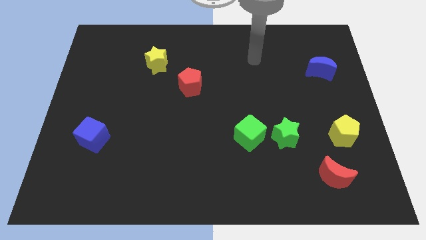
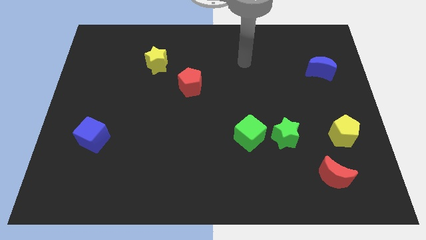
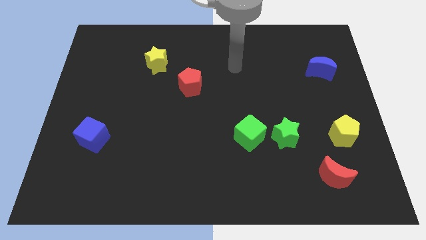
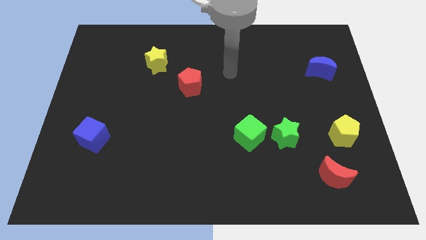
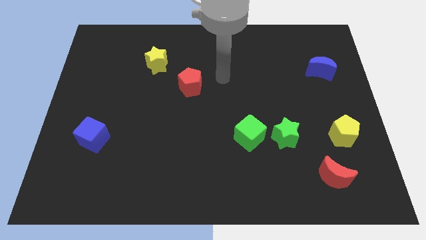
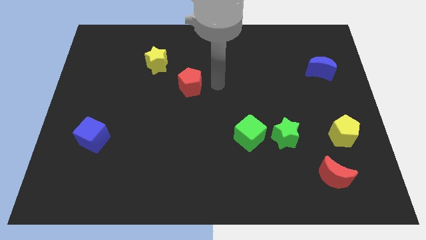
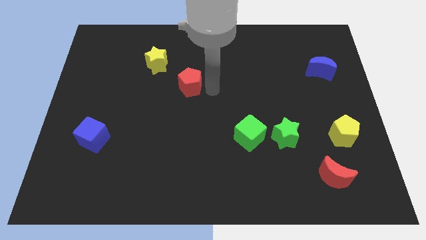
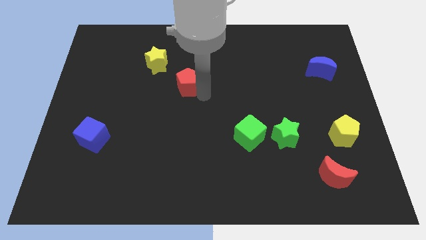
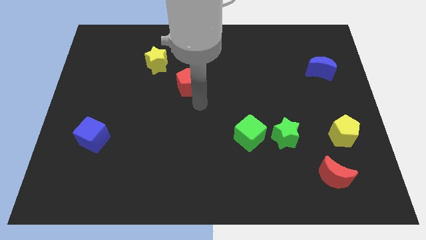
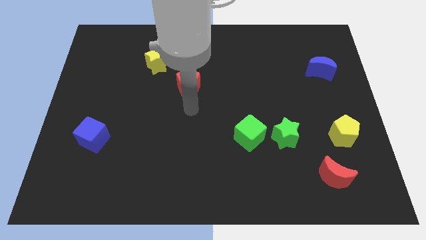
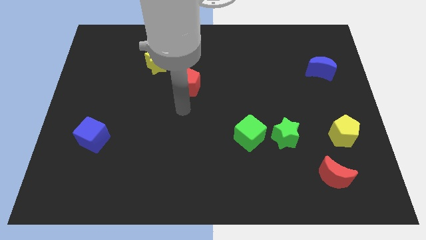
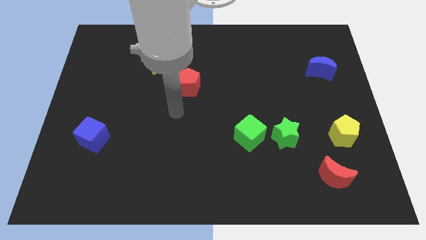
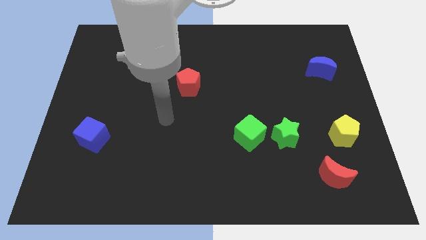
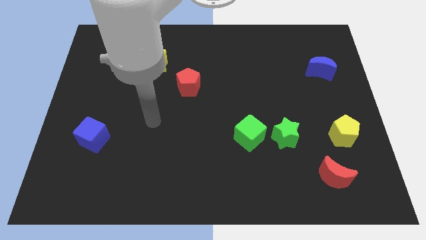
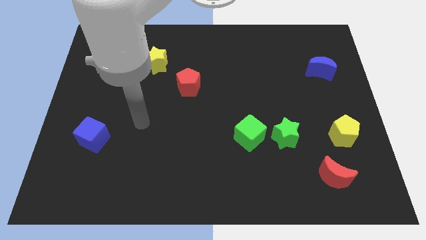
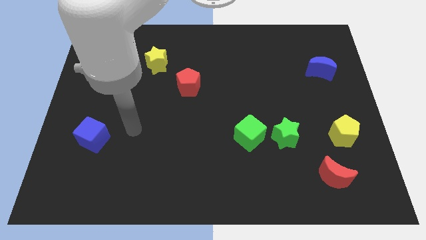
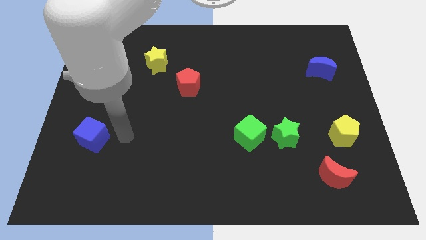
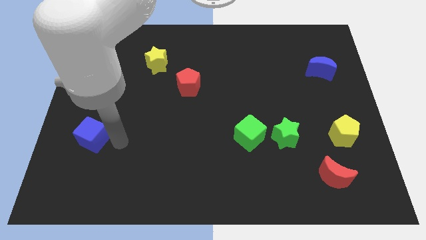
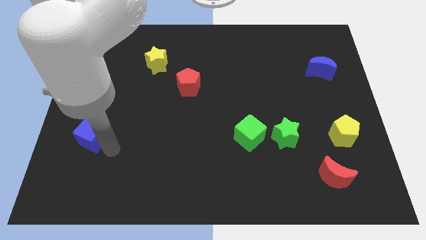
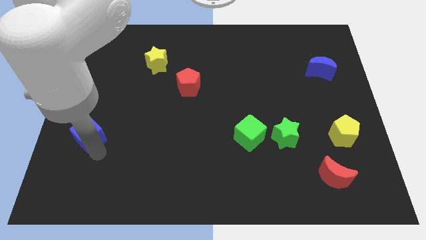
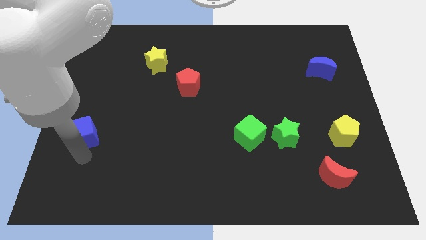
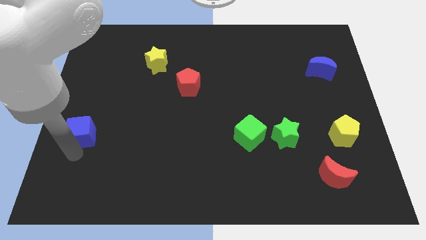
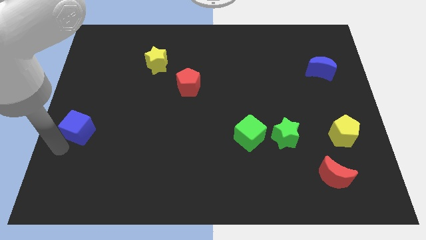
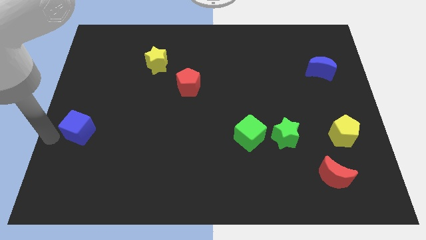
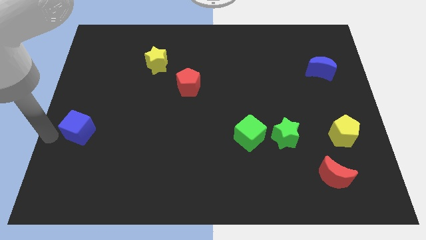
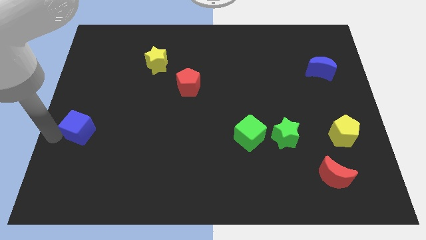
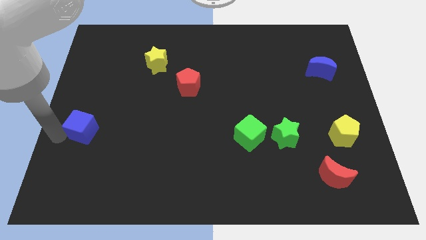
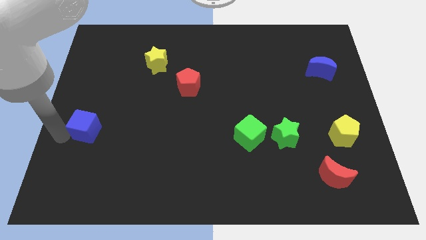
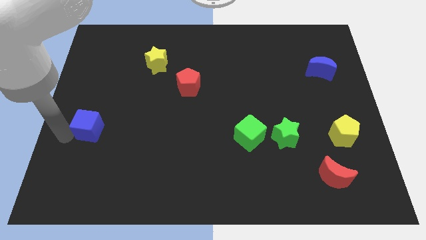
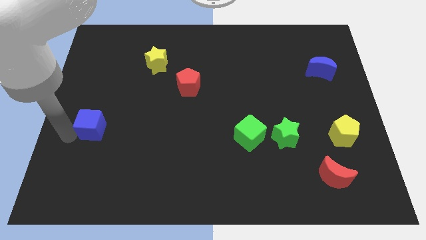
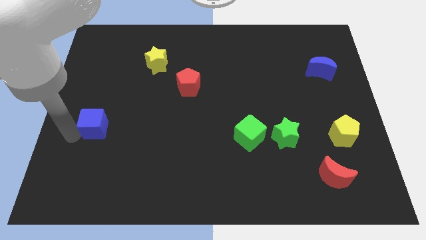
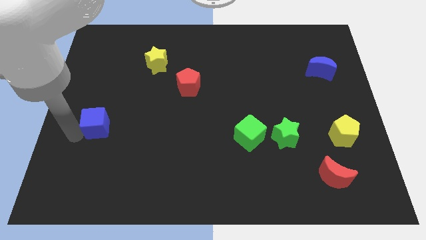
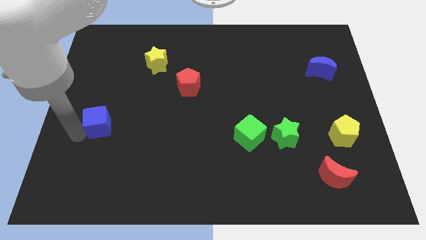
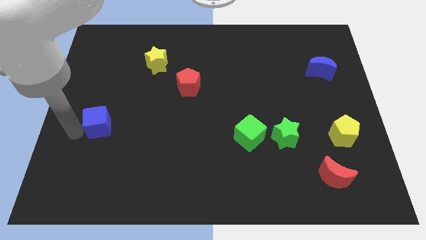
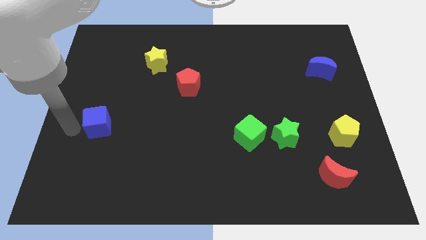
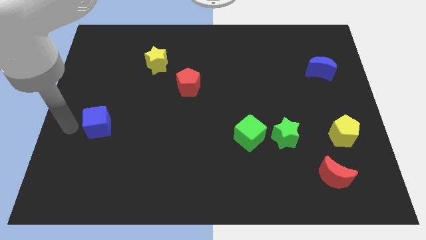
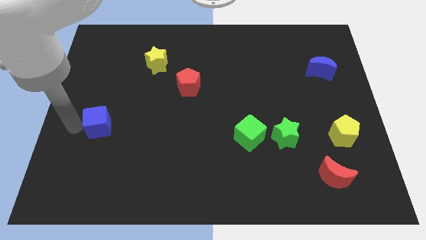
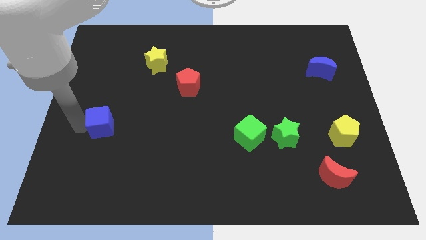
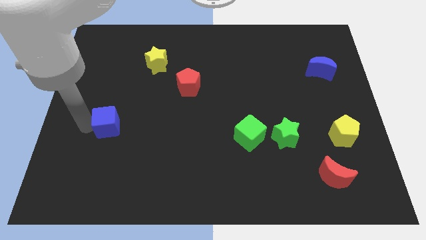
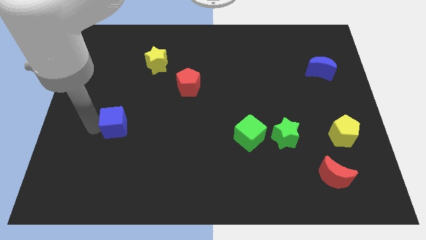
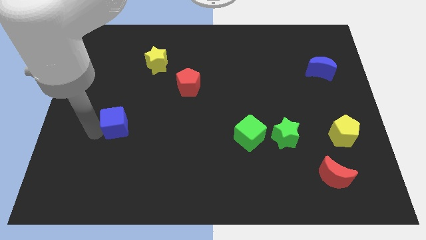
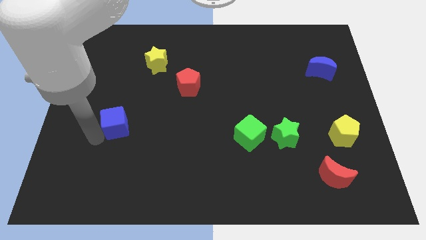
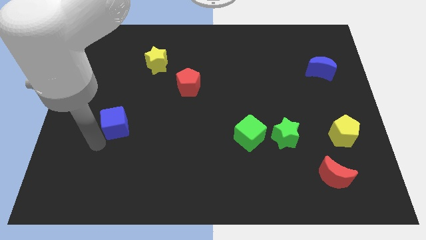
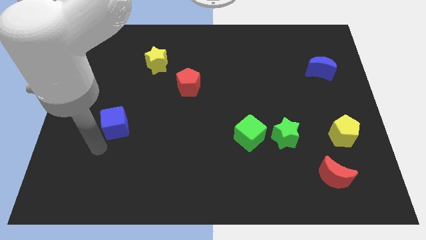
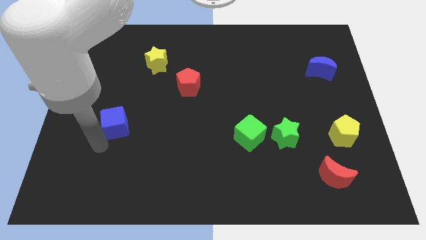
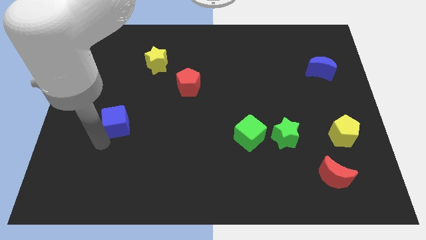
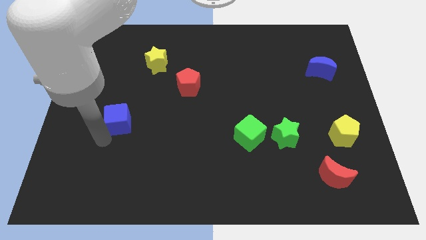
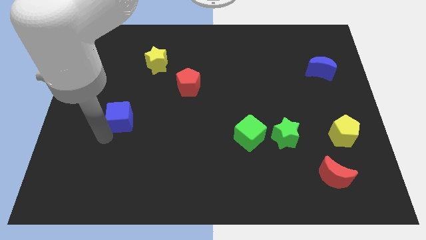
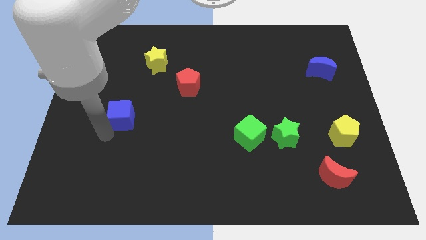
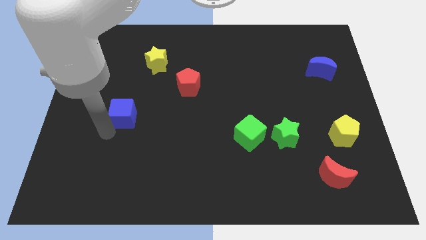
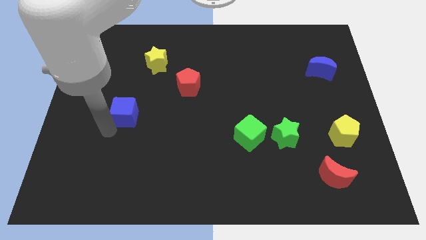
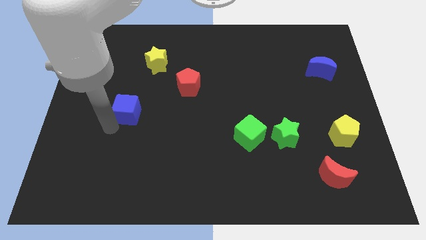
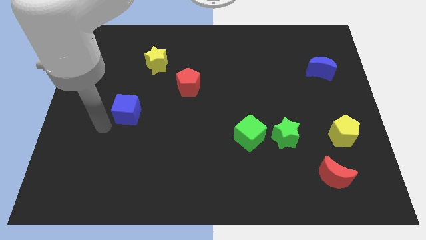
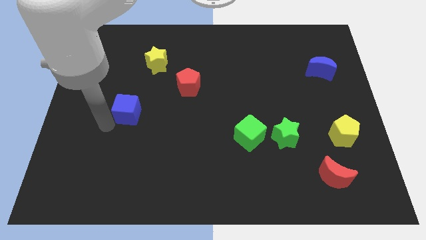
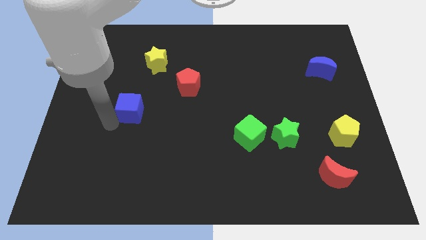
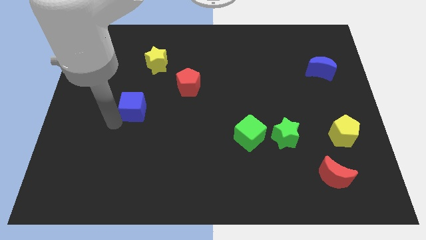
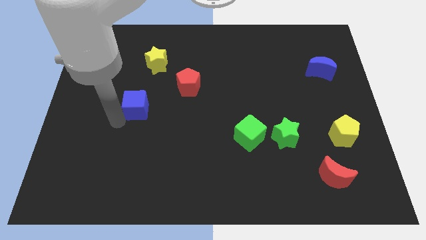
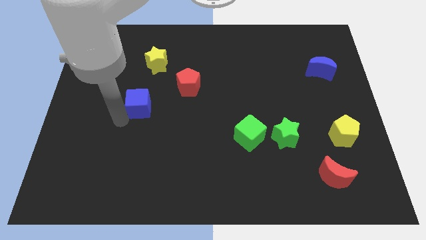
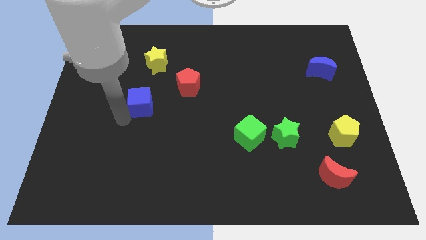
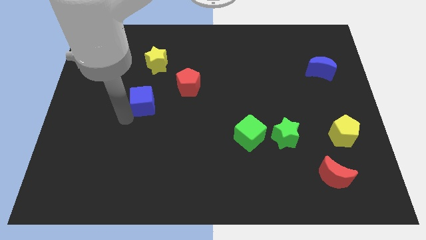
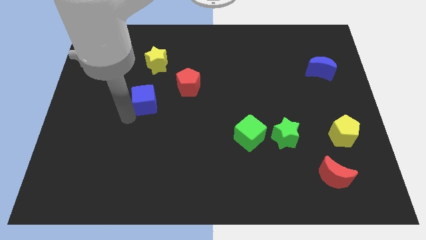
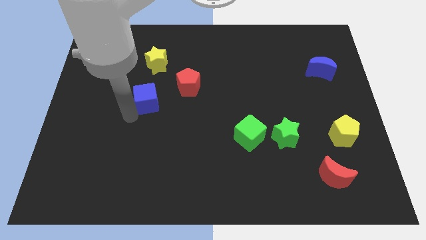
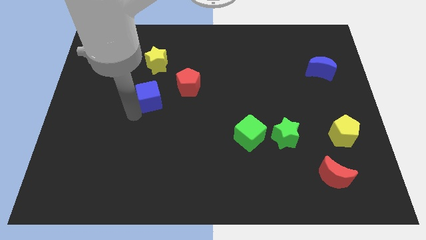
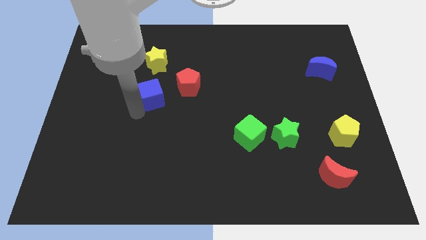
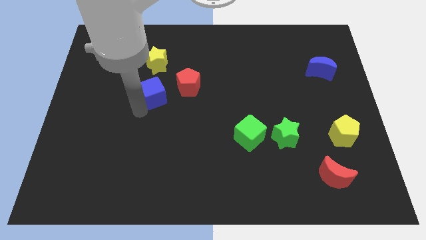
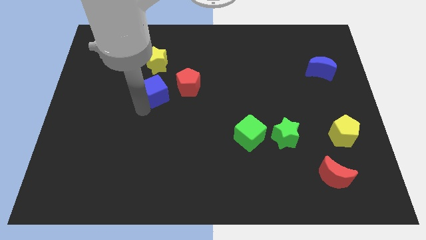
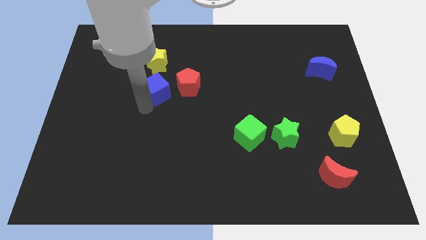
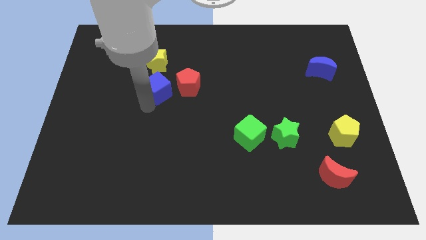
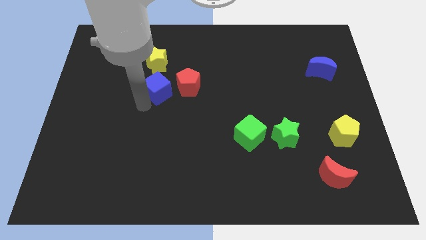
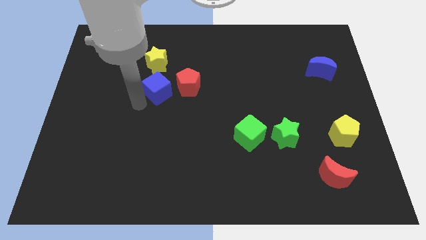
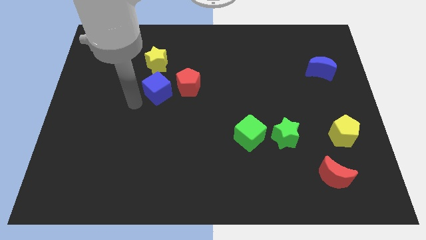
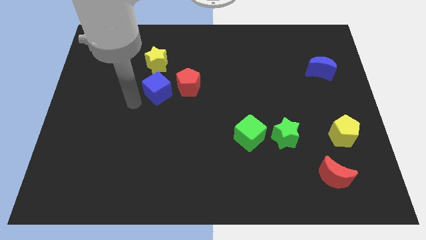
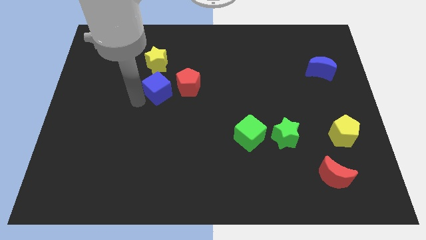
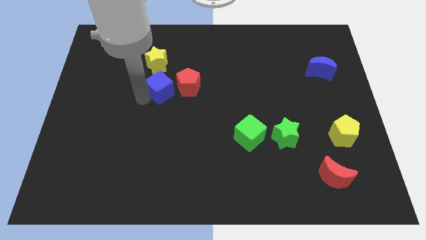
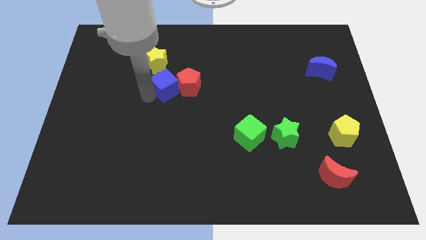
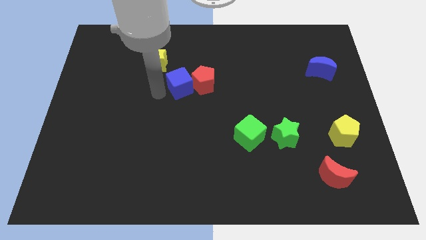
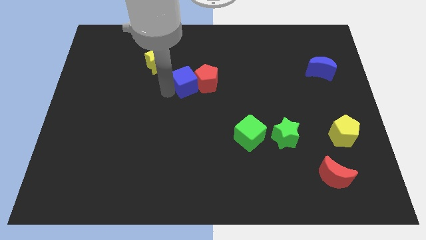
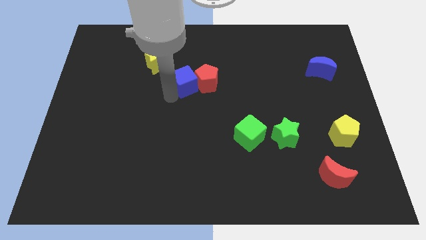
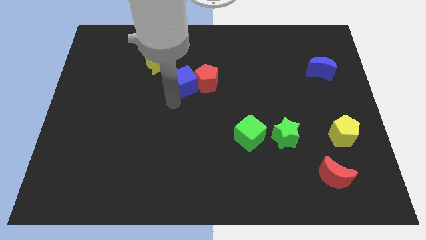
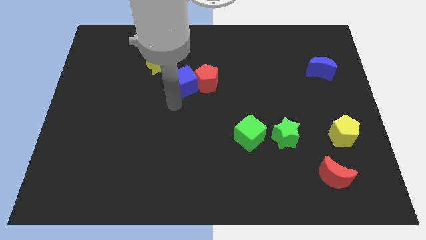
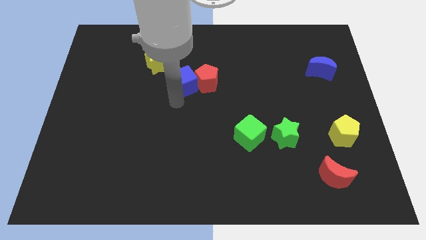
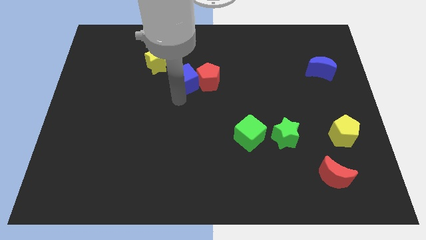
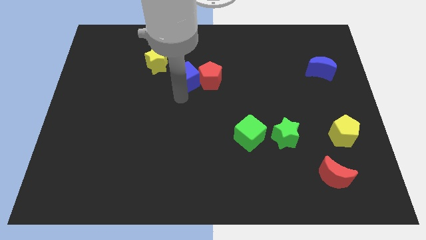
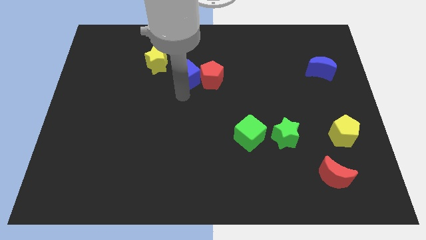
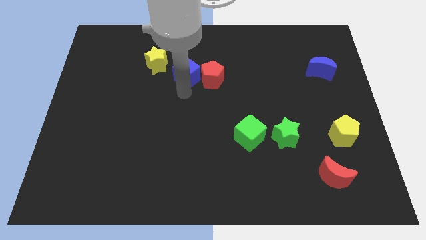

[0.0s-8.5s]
put the blue cube to the right side of the yellow star
